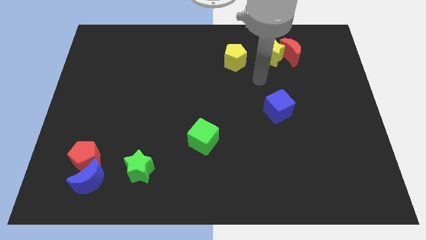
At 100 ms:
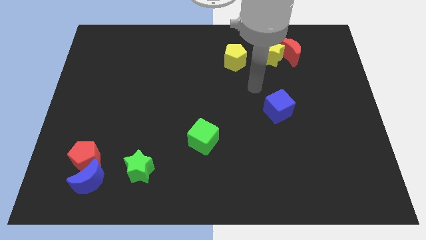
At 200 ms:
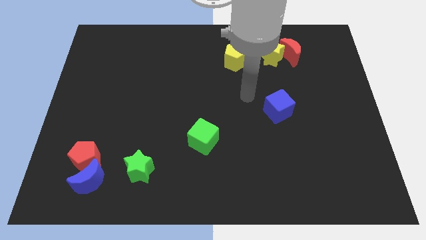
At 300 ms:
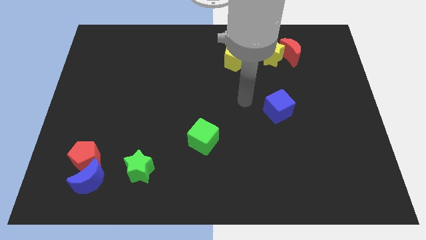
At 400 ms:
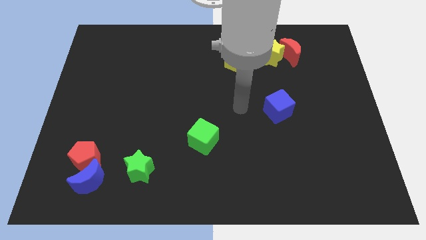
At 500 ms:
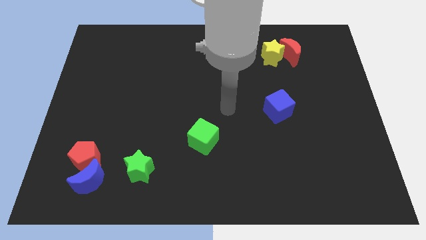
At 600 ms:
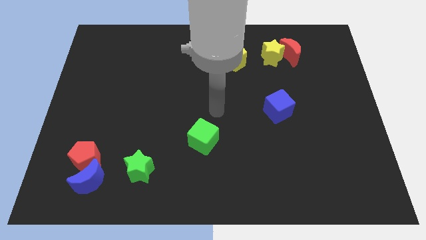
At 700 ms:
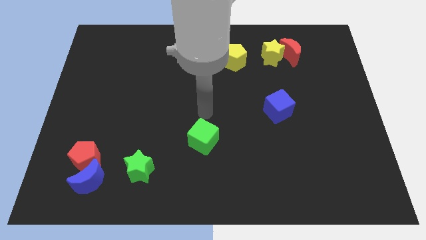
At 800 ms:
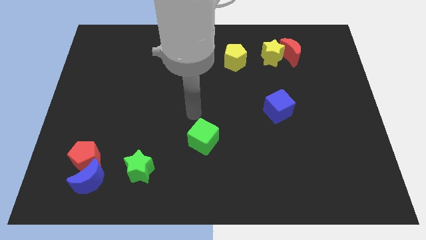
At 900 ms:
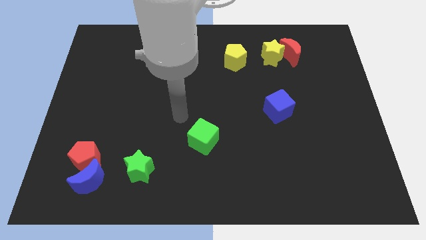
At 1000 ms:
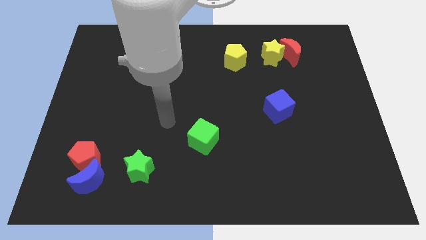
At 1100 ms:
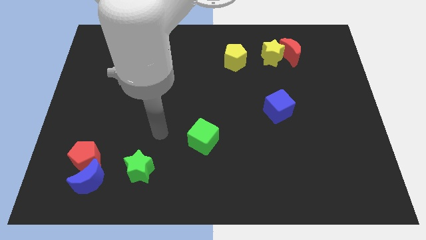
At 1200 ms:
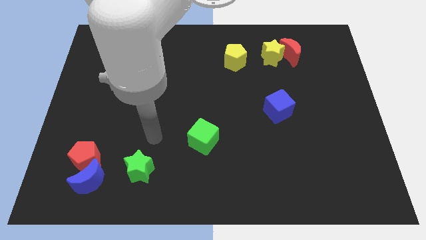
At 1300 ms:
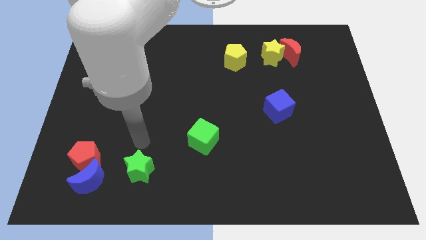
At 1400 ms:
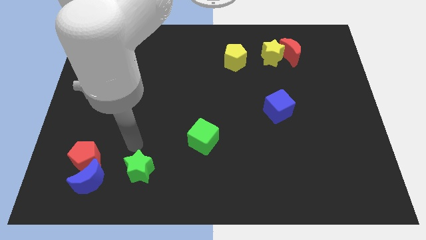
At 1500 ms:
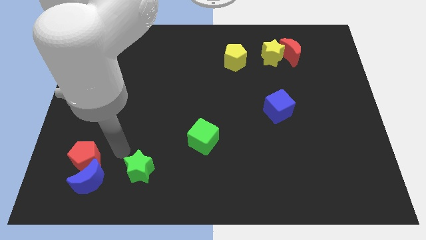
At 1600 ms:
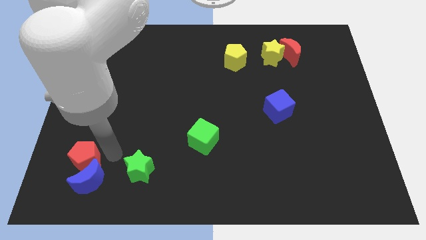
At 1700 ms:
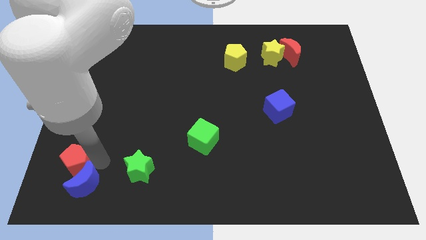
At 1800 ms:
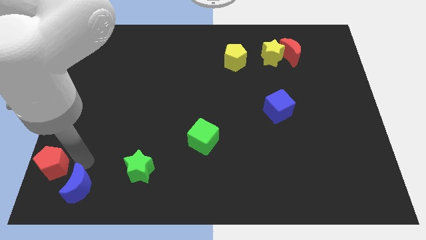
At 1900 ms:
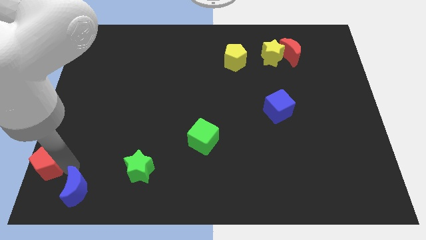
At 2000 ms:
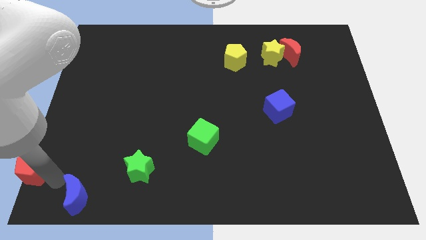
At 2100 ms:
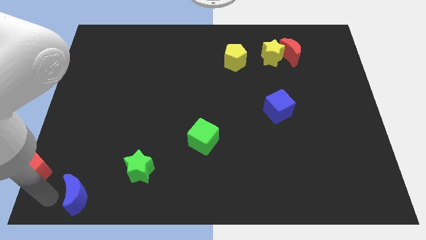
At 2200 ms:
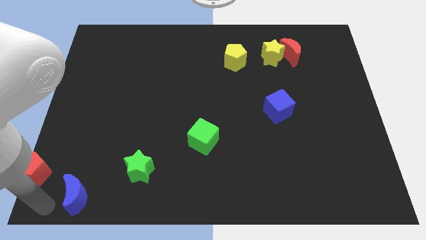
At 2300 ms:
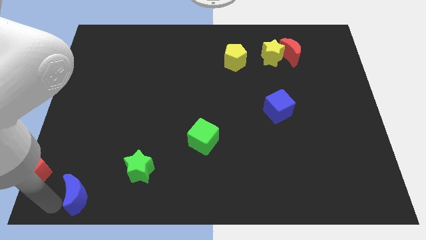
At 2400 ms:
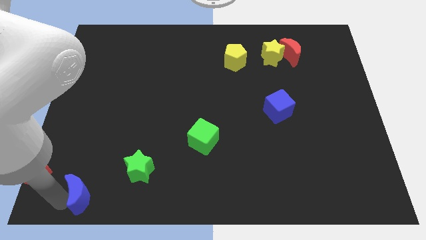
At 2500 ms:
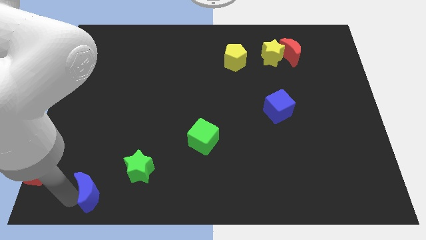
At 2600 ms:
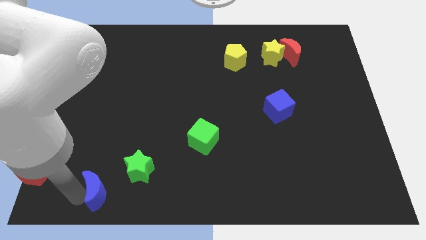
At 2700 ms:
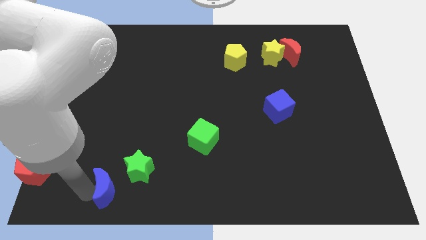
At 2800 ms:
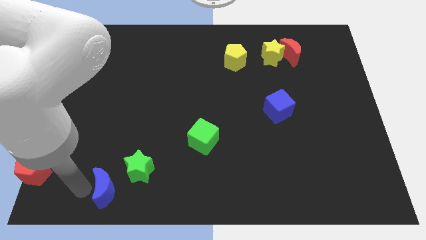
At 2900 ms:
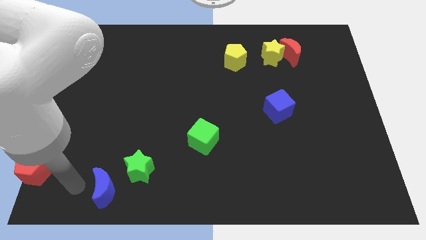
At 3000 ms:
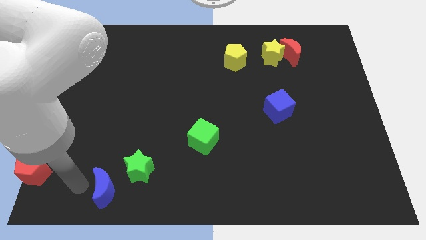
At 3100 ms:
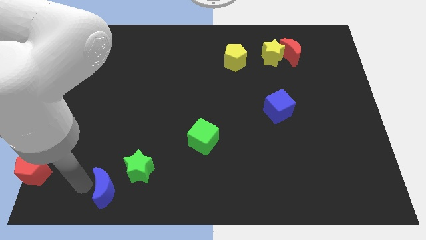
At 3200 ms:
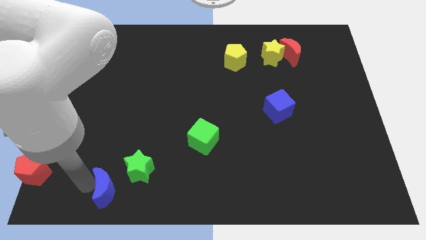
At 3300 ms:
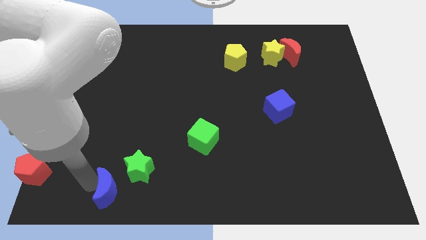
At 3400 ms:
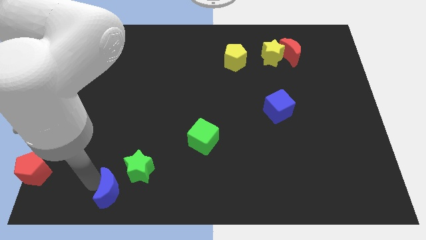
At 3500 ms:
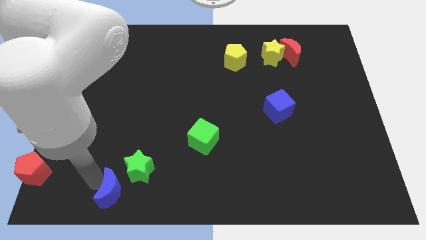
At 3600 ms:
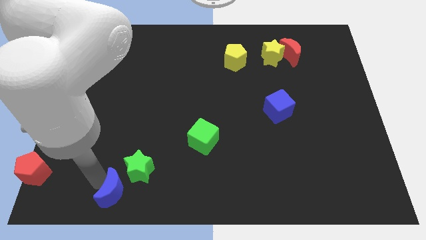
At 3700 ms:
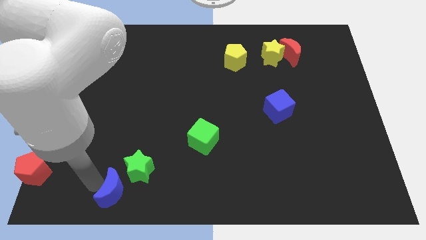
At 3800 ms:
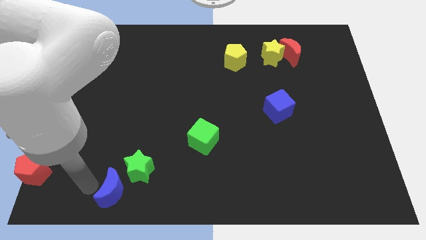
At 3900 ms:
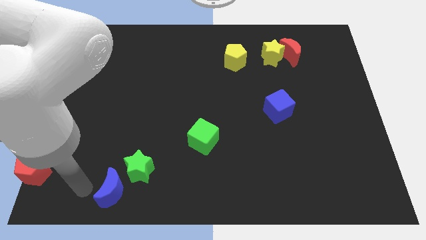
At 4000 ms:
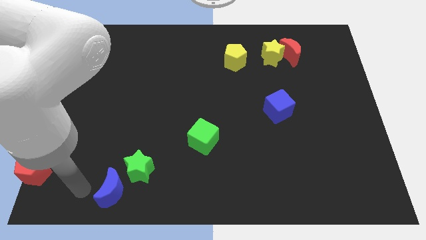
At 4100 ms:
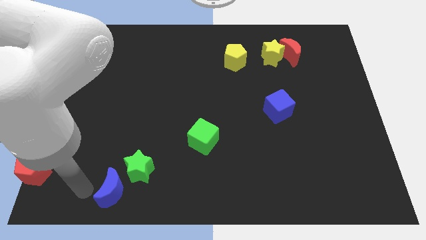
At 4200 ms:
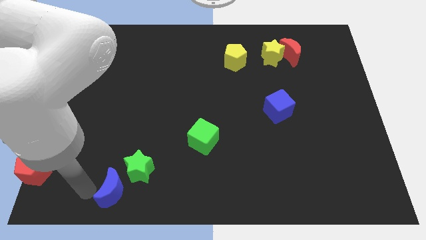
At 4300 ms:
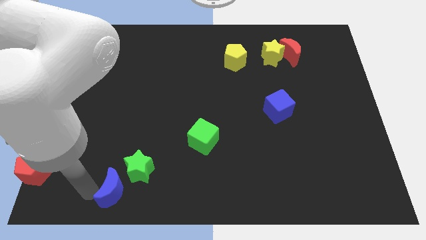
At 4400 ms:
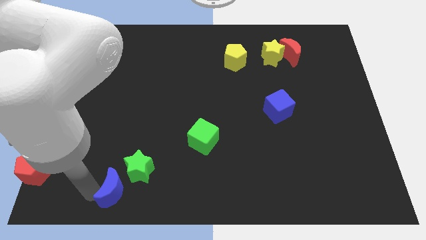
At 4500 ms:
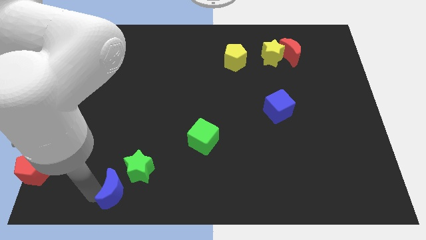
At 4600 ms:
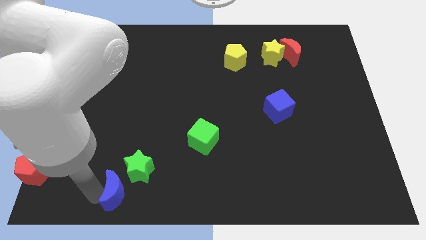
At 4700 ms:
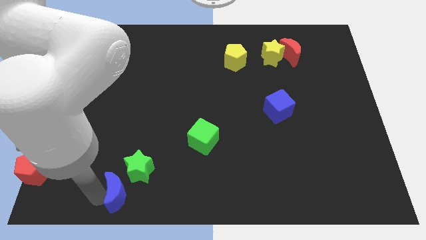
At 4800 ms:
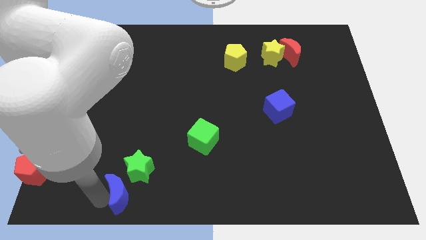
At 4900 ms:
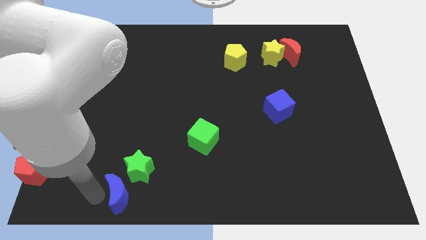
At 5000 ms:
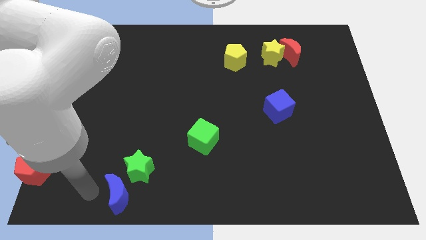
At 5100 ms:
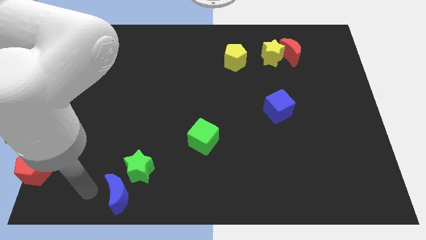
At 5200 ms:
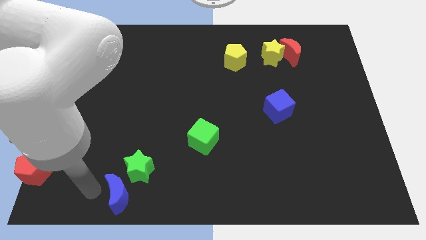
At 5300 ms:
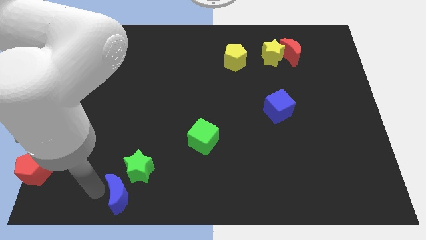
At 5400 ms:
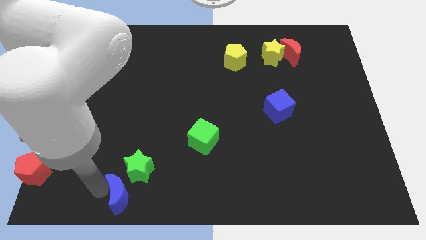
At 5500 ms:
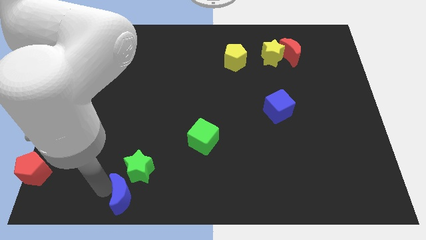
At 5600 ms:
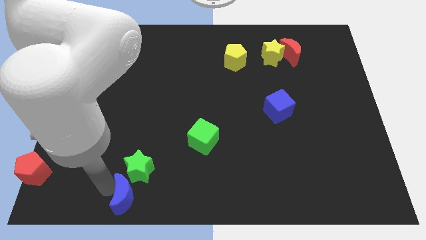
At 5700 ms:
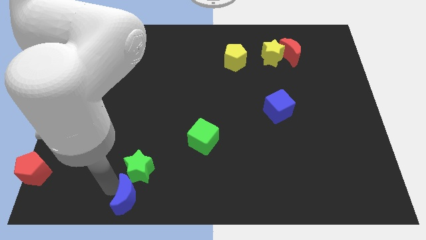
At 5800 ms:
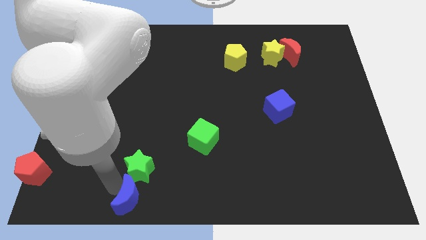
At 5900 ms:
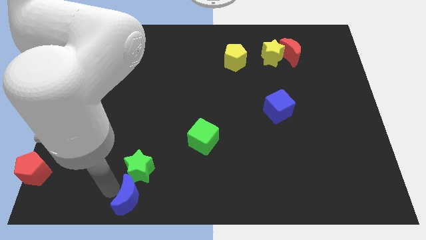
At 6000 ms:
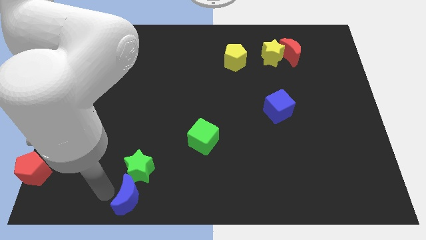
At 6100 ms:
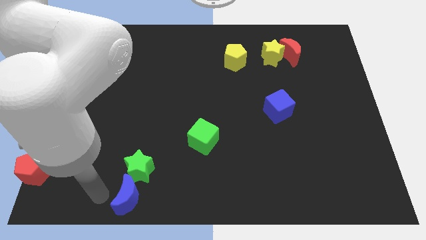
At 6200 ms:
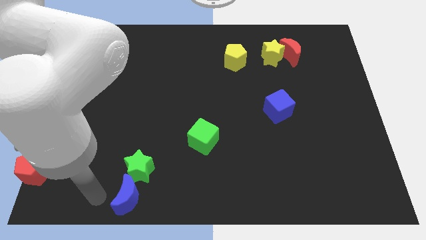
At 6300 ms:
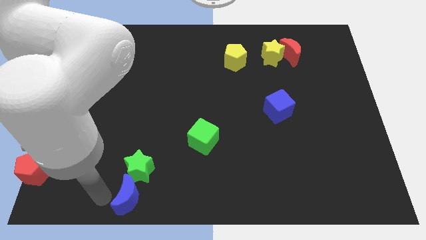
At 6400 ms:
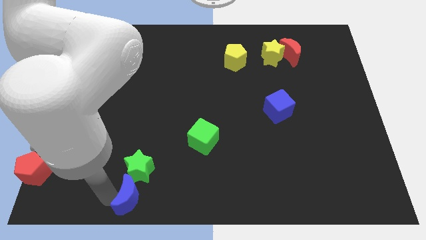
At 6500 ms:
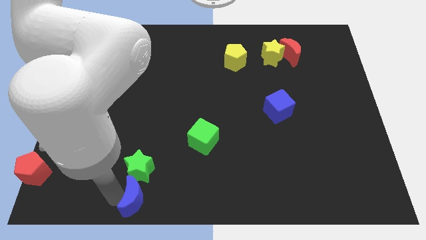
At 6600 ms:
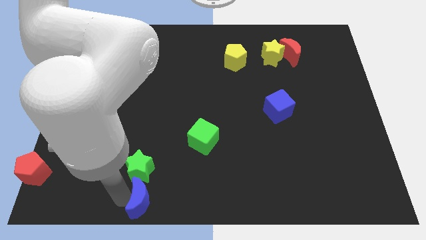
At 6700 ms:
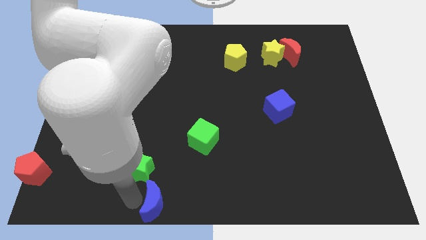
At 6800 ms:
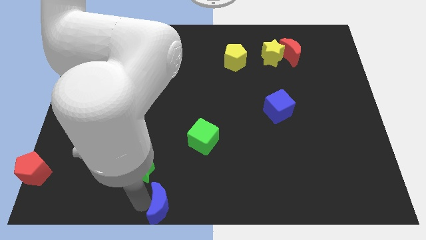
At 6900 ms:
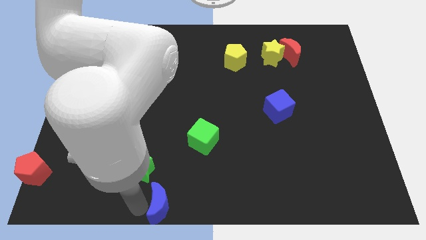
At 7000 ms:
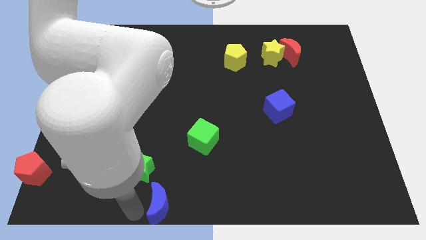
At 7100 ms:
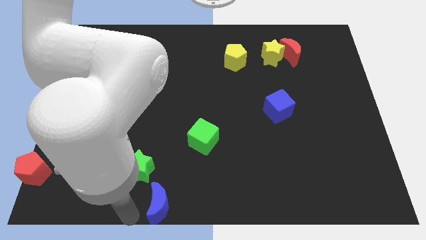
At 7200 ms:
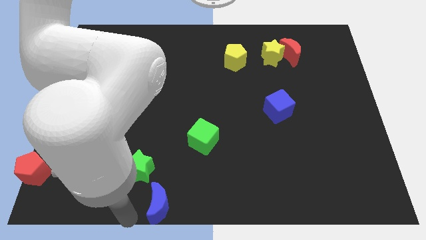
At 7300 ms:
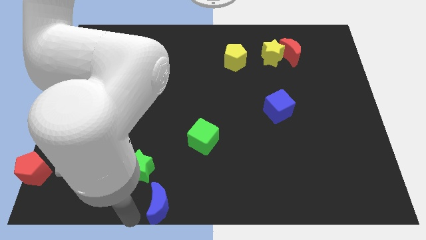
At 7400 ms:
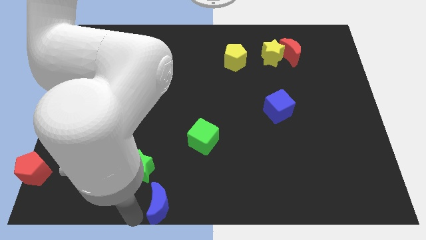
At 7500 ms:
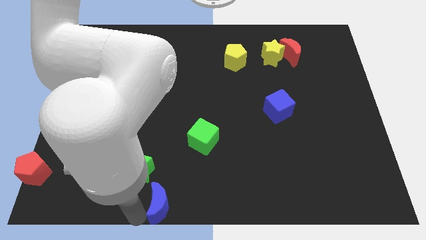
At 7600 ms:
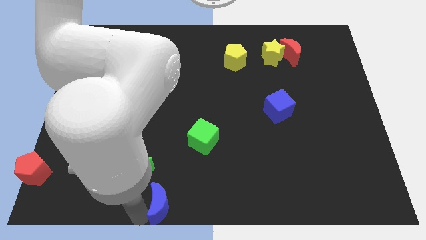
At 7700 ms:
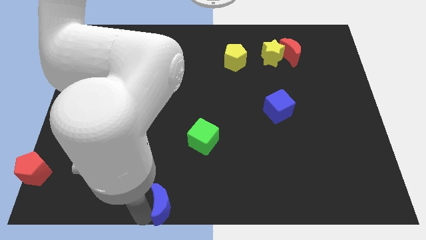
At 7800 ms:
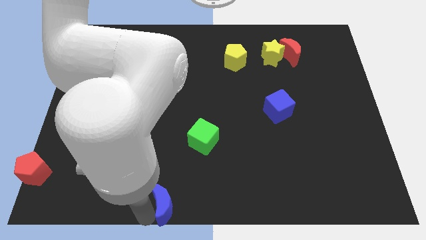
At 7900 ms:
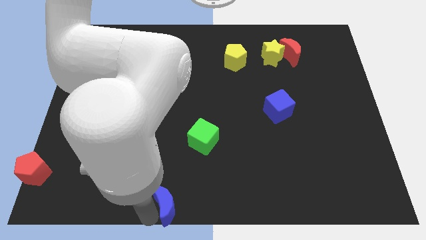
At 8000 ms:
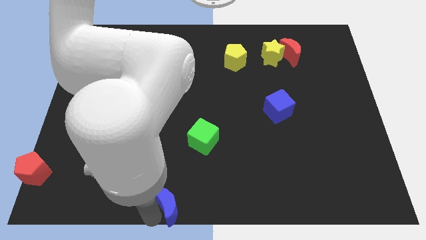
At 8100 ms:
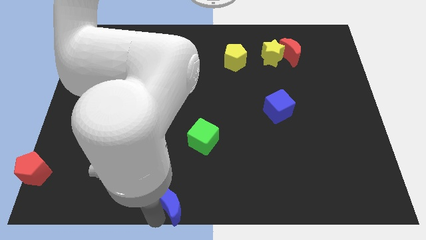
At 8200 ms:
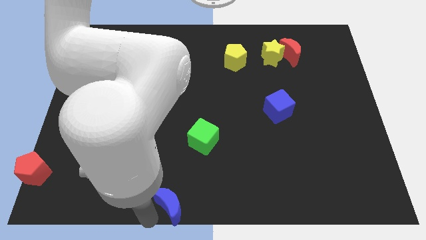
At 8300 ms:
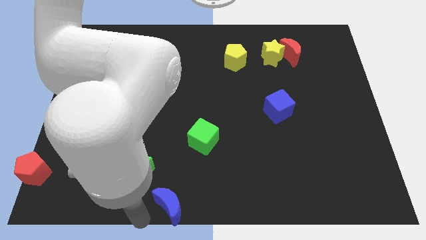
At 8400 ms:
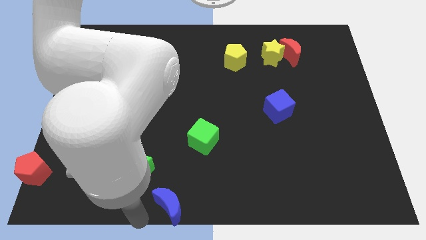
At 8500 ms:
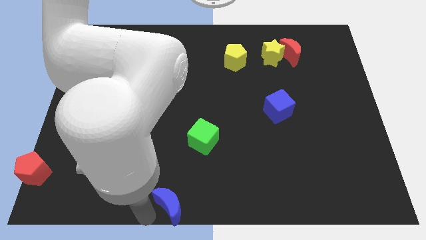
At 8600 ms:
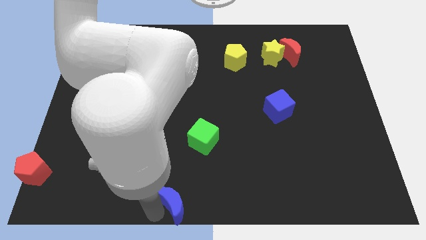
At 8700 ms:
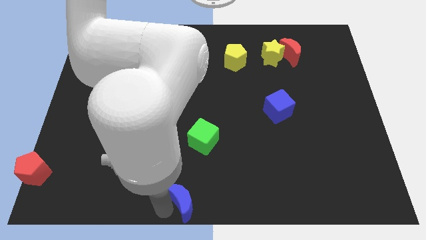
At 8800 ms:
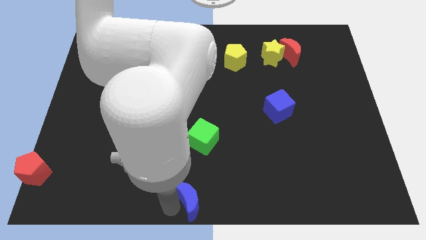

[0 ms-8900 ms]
move the blue moon to the right
